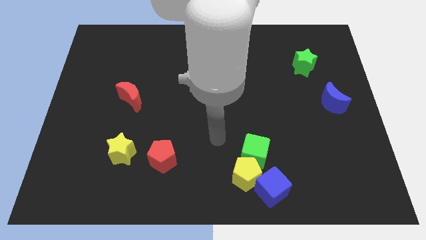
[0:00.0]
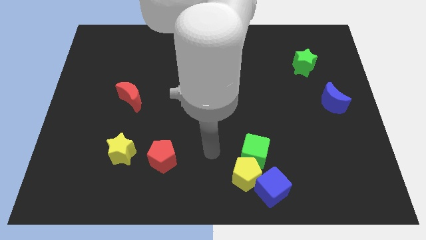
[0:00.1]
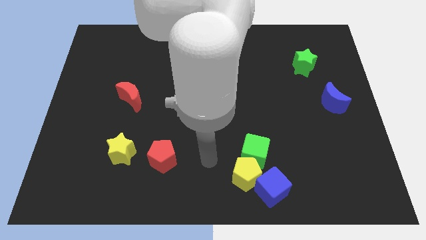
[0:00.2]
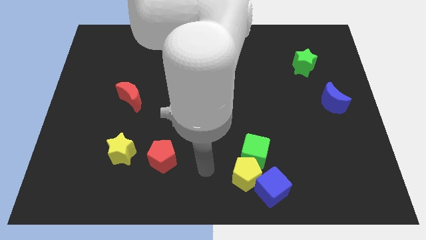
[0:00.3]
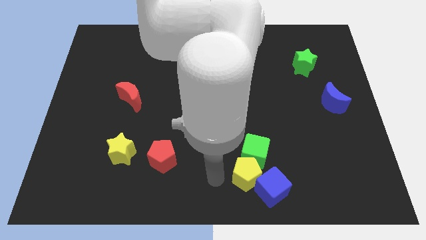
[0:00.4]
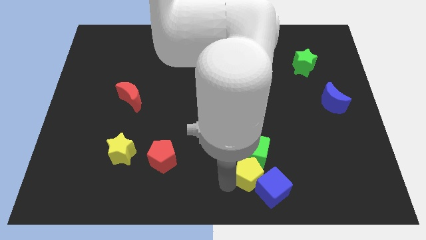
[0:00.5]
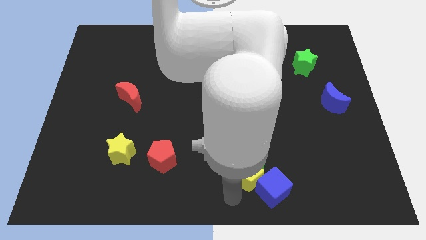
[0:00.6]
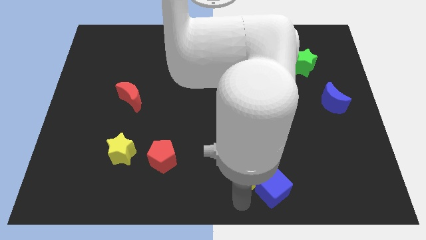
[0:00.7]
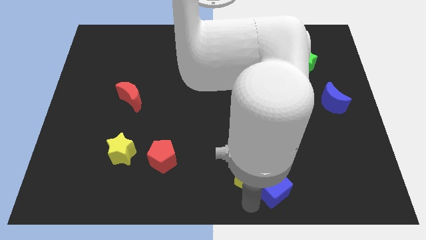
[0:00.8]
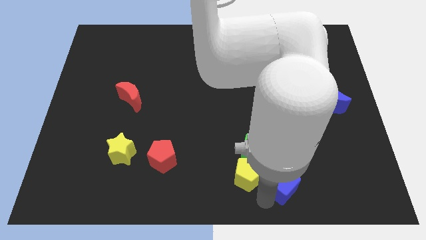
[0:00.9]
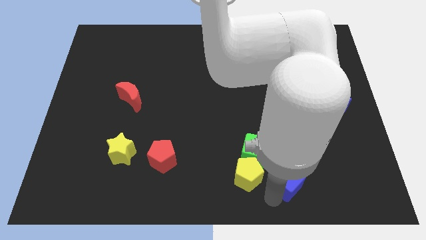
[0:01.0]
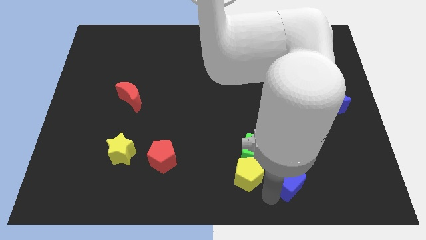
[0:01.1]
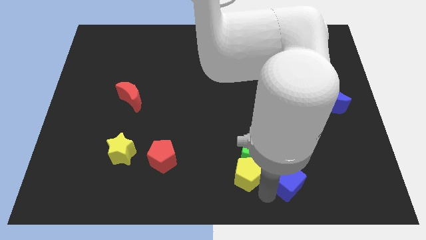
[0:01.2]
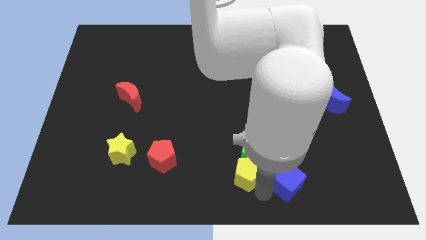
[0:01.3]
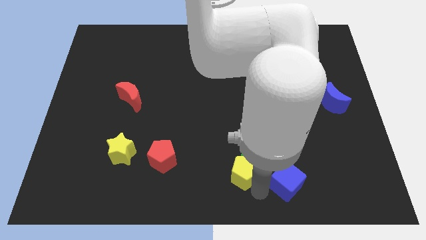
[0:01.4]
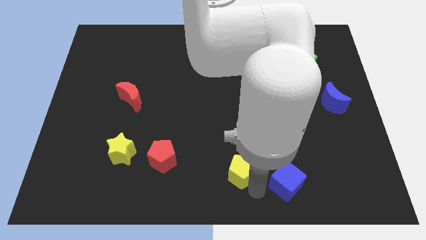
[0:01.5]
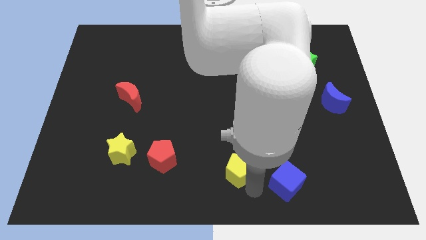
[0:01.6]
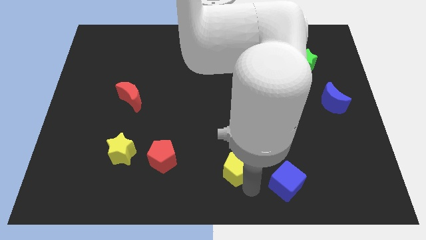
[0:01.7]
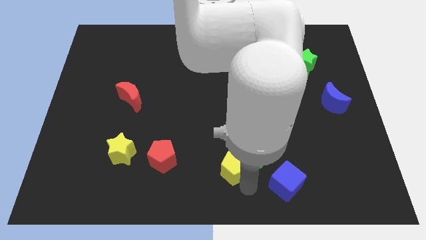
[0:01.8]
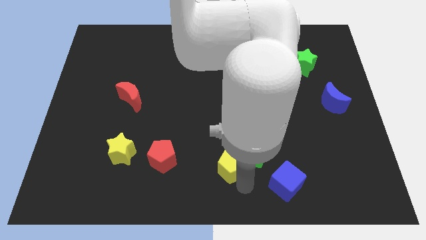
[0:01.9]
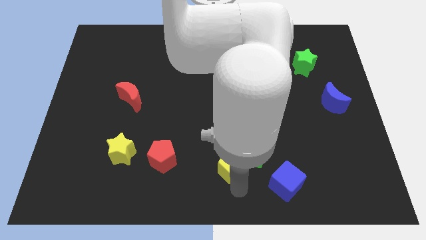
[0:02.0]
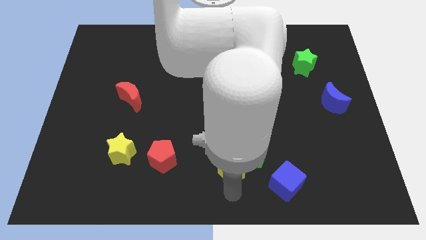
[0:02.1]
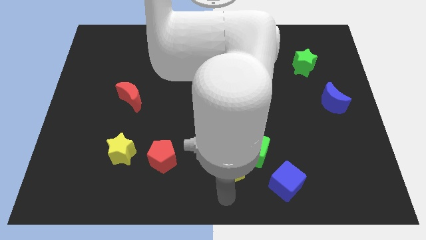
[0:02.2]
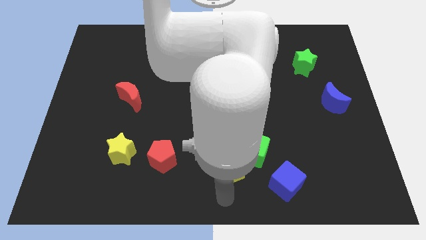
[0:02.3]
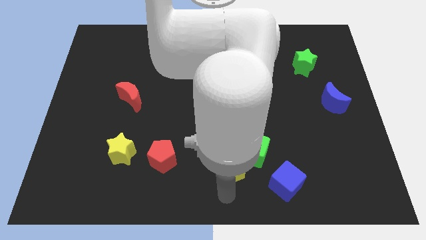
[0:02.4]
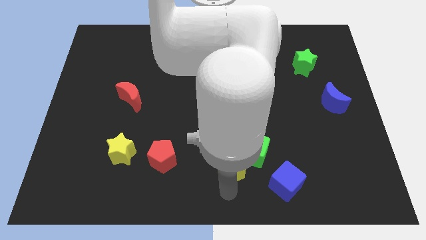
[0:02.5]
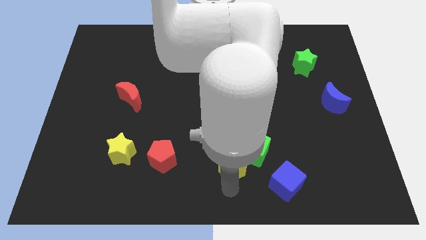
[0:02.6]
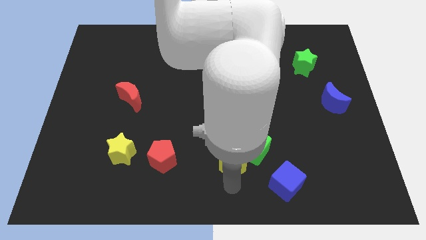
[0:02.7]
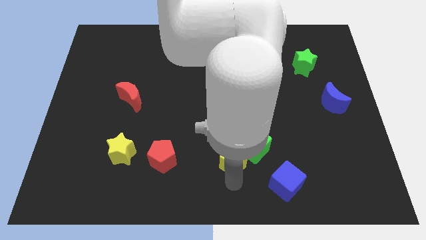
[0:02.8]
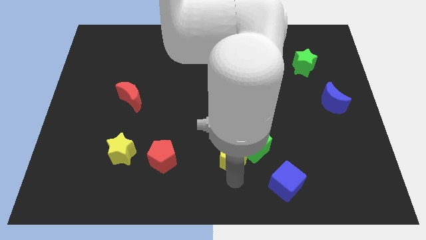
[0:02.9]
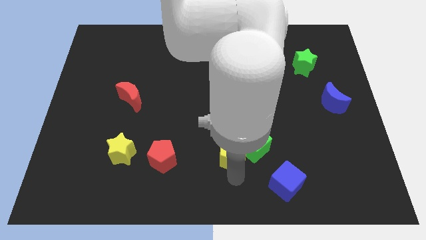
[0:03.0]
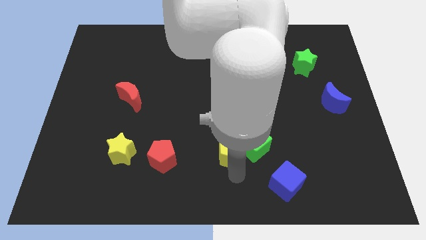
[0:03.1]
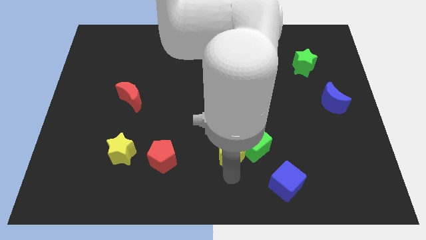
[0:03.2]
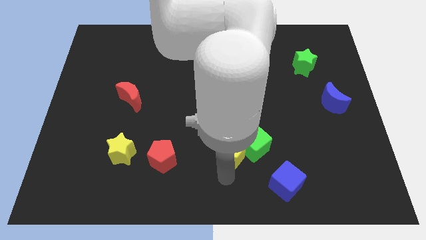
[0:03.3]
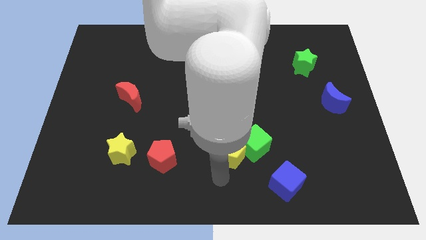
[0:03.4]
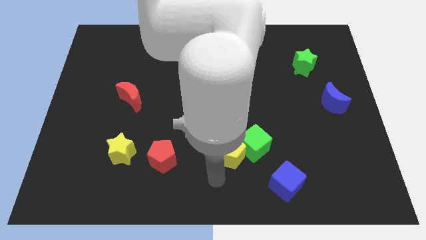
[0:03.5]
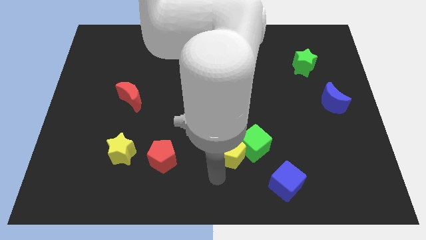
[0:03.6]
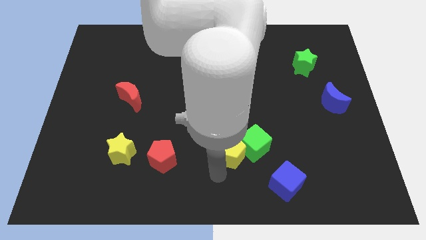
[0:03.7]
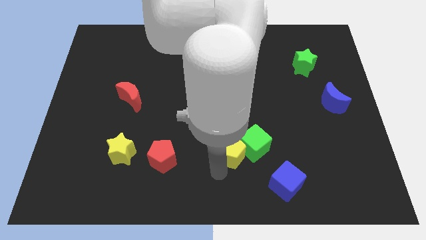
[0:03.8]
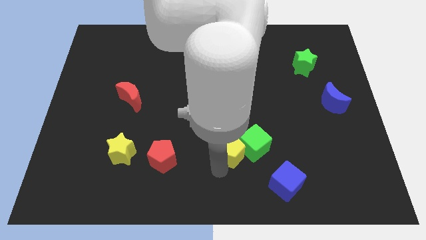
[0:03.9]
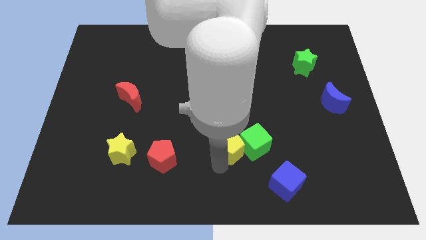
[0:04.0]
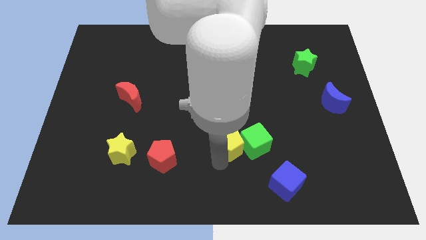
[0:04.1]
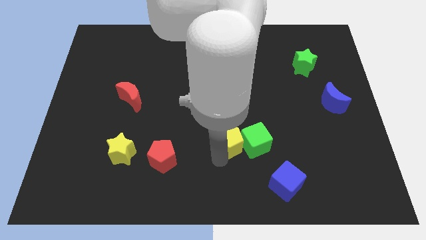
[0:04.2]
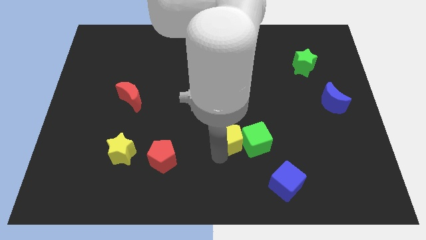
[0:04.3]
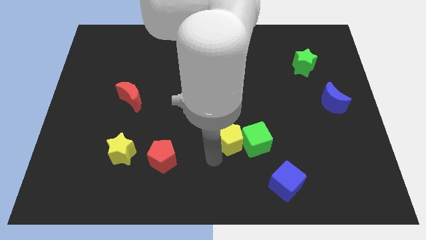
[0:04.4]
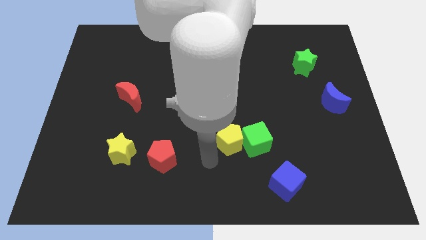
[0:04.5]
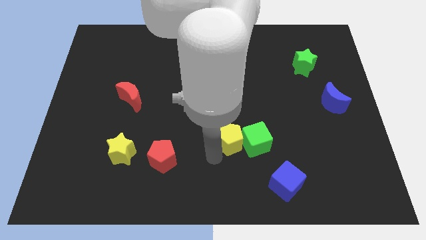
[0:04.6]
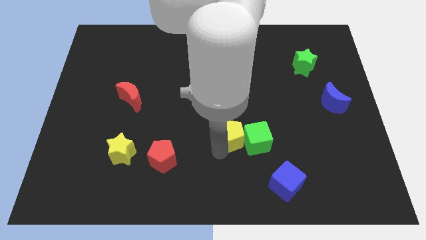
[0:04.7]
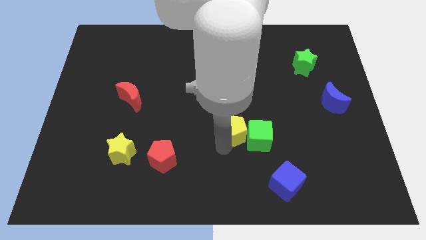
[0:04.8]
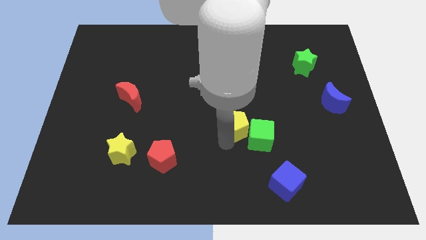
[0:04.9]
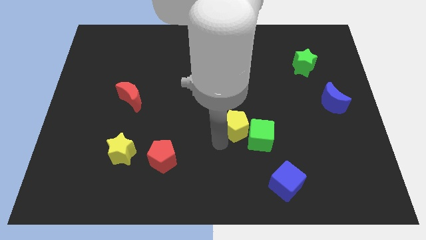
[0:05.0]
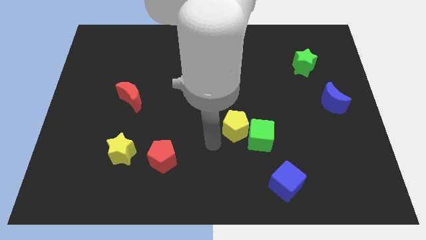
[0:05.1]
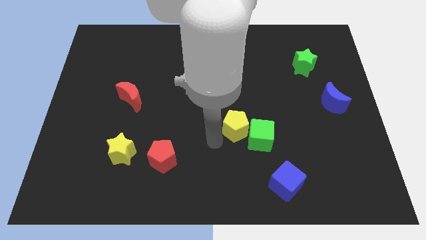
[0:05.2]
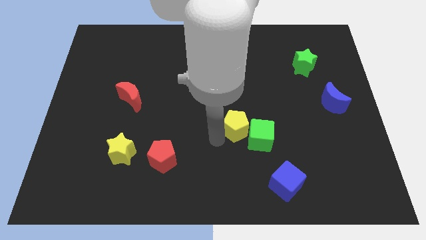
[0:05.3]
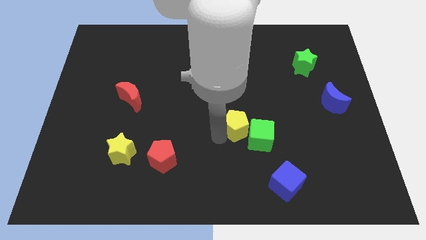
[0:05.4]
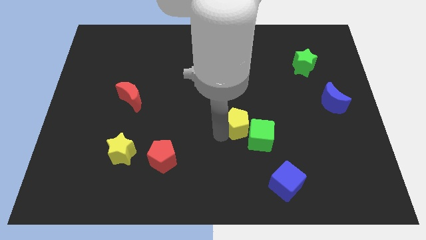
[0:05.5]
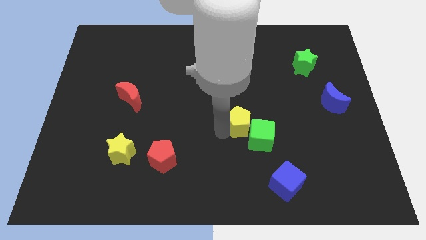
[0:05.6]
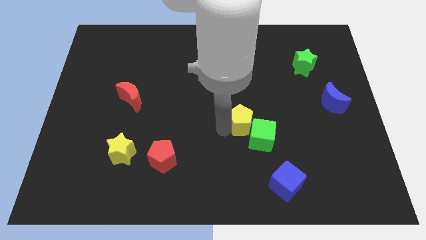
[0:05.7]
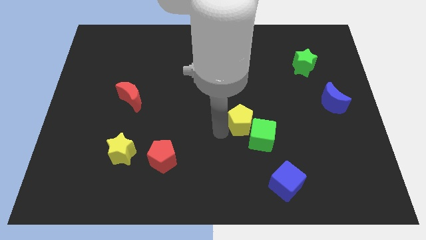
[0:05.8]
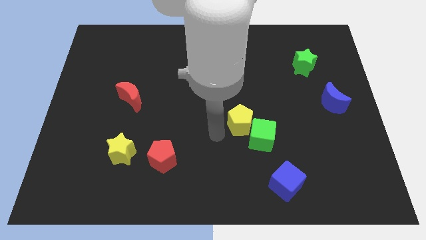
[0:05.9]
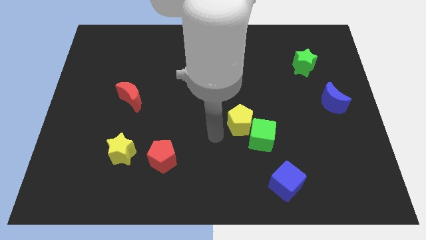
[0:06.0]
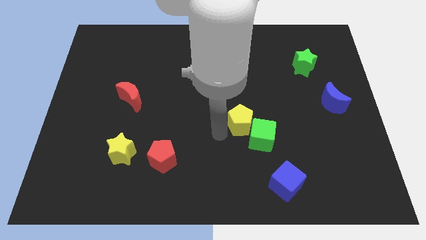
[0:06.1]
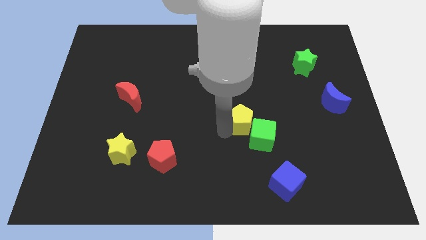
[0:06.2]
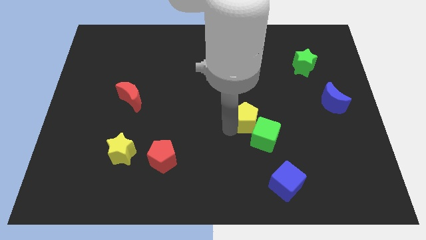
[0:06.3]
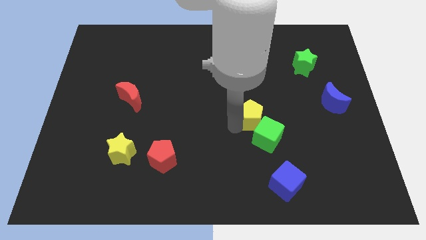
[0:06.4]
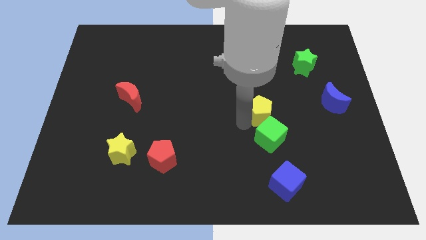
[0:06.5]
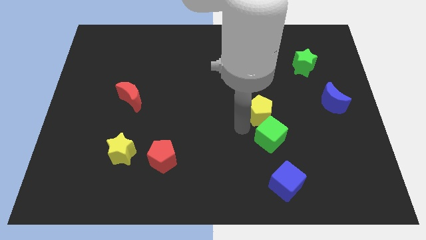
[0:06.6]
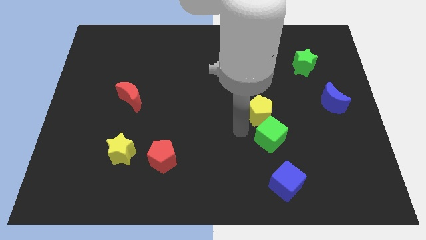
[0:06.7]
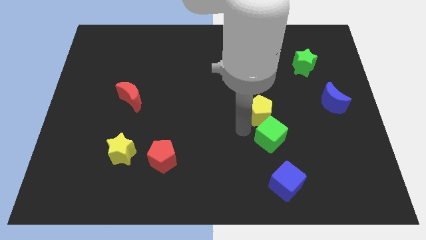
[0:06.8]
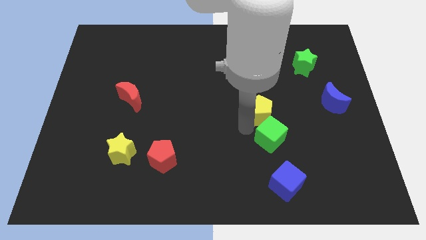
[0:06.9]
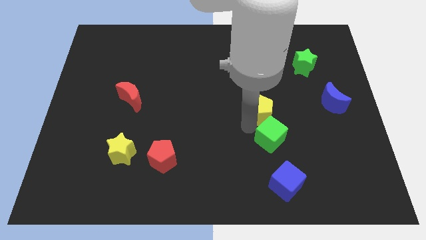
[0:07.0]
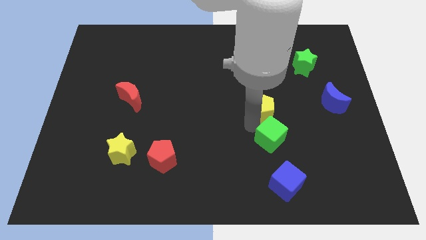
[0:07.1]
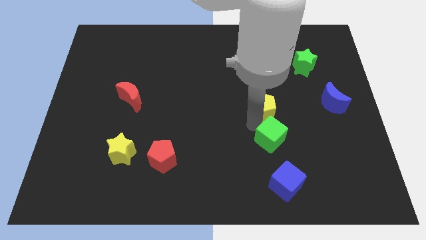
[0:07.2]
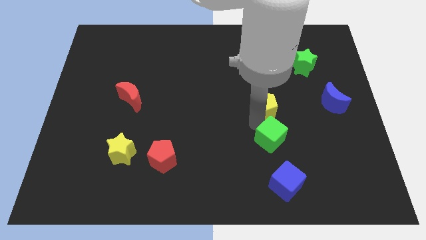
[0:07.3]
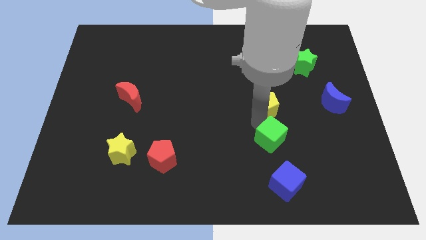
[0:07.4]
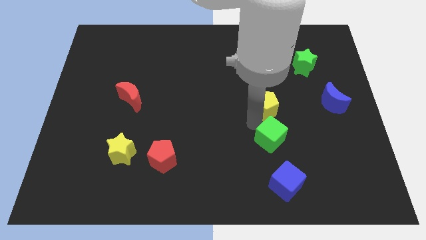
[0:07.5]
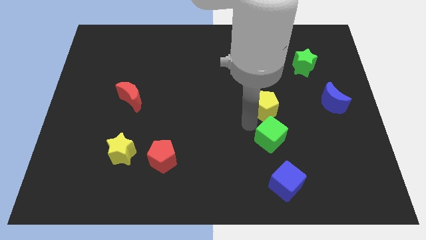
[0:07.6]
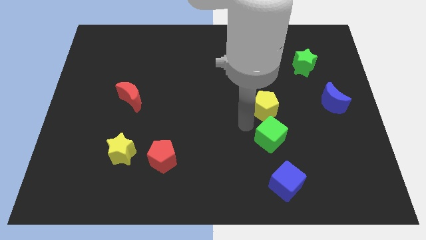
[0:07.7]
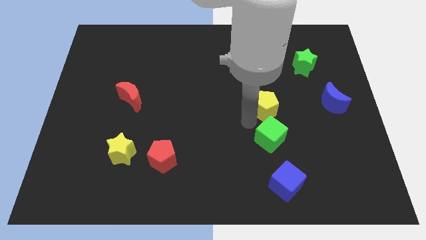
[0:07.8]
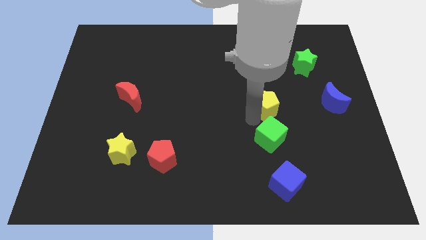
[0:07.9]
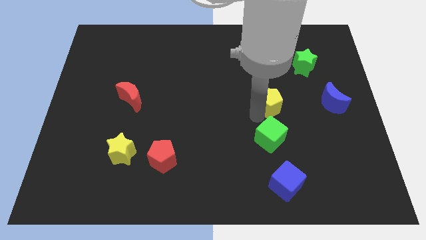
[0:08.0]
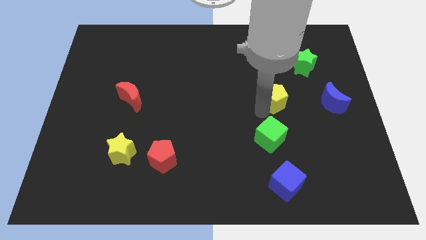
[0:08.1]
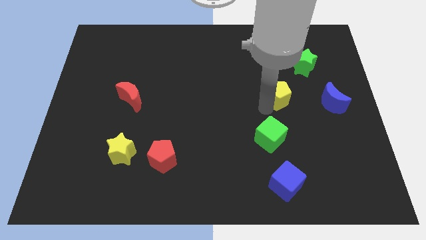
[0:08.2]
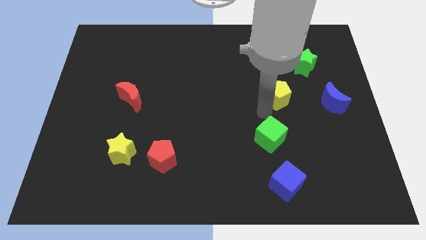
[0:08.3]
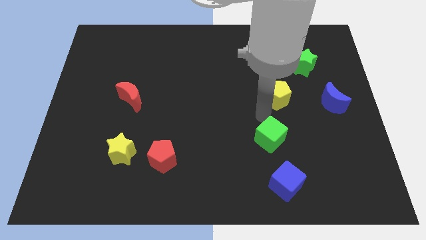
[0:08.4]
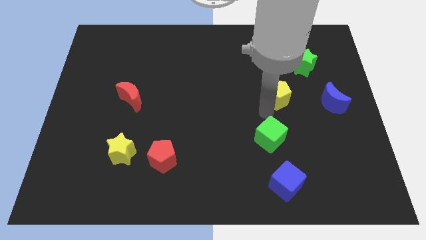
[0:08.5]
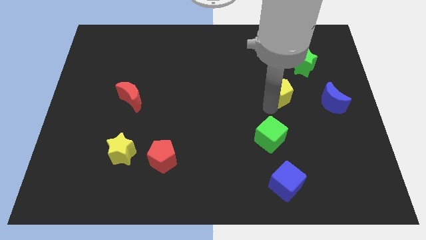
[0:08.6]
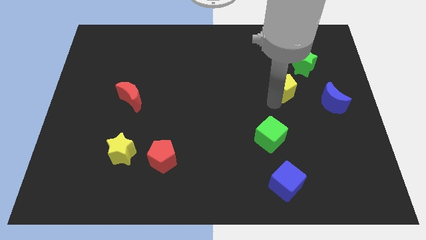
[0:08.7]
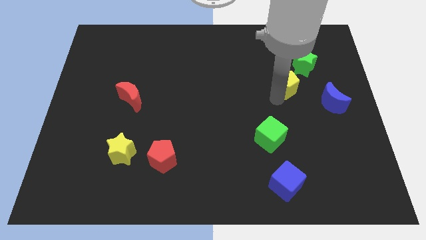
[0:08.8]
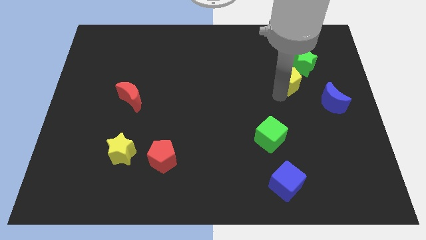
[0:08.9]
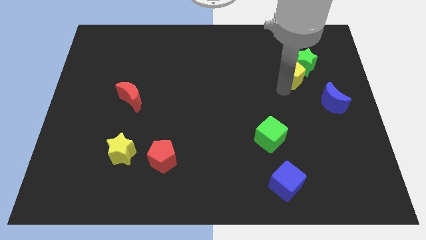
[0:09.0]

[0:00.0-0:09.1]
move the yellow pentagon towards the green star
